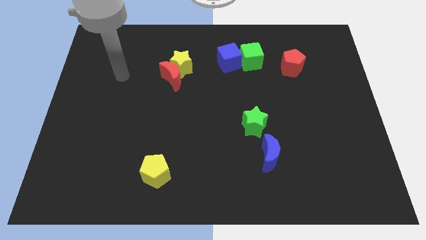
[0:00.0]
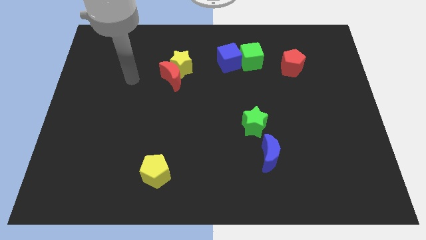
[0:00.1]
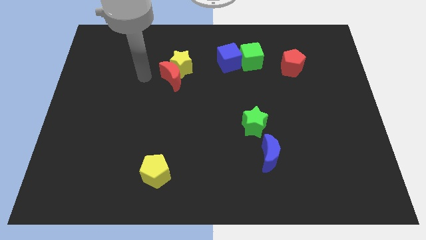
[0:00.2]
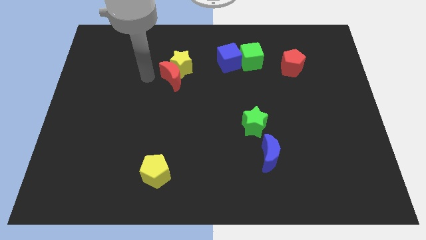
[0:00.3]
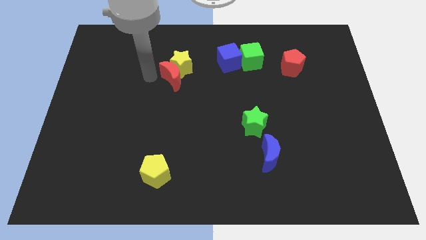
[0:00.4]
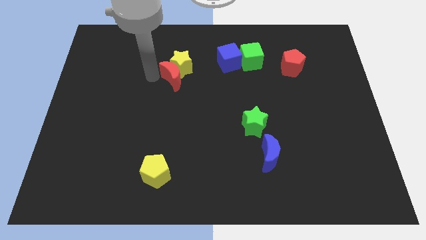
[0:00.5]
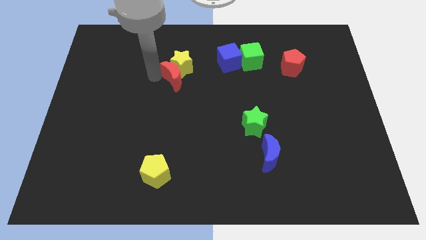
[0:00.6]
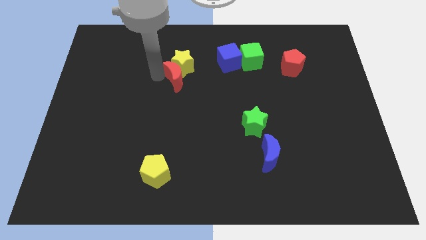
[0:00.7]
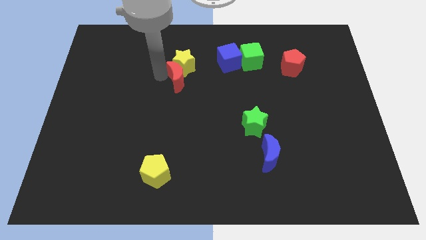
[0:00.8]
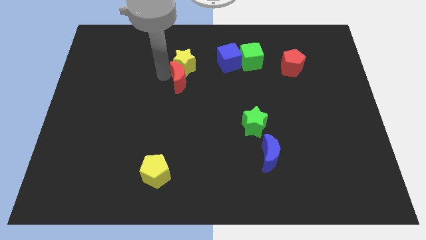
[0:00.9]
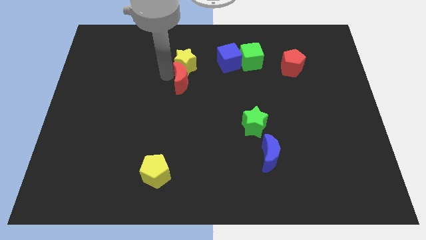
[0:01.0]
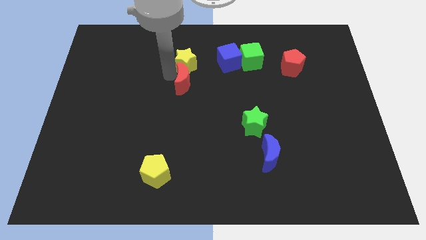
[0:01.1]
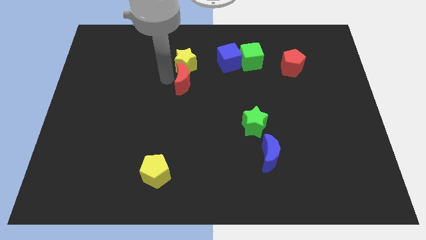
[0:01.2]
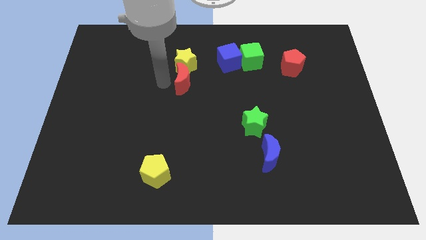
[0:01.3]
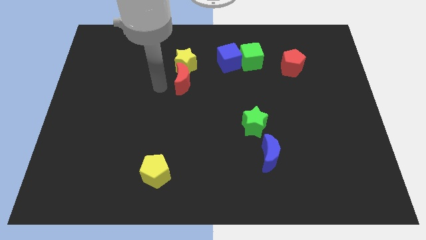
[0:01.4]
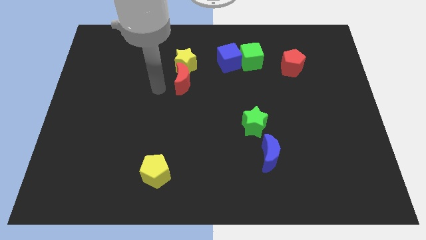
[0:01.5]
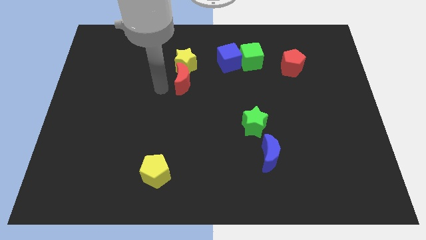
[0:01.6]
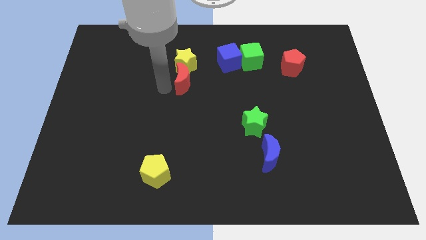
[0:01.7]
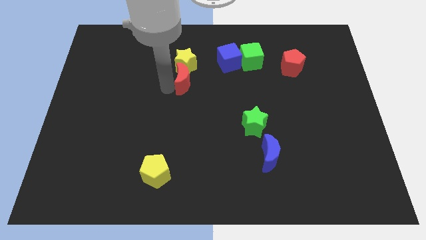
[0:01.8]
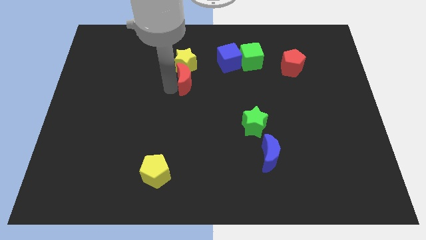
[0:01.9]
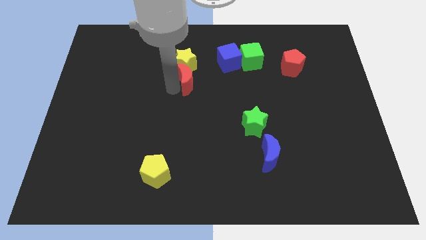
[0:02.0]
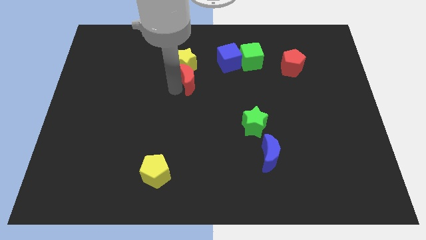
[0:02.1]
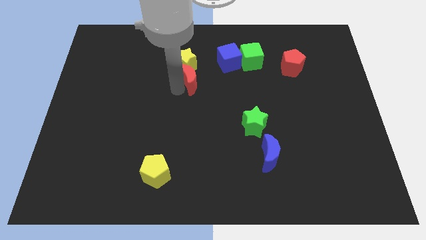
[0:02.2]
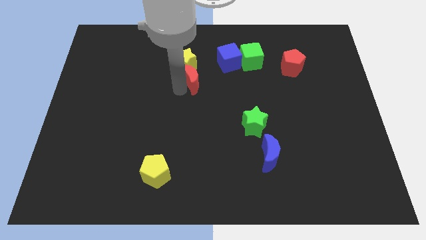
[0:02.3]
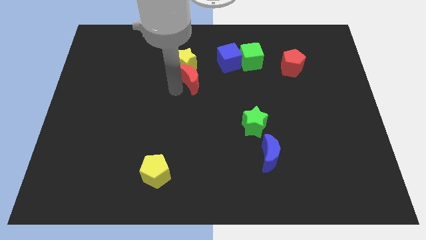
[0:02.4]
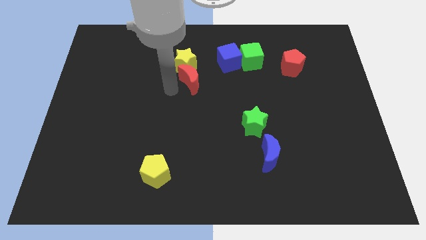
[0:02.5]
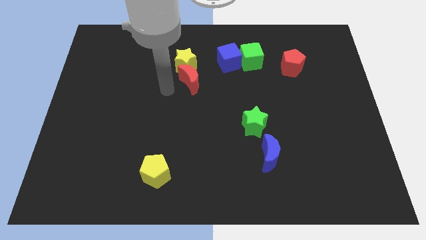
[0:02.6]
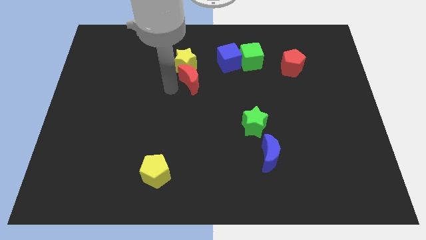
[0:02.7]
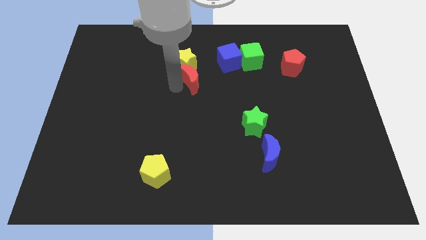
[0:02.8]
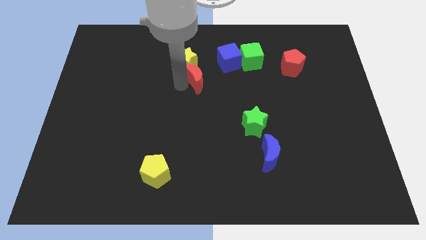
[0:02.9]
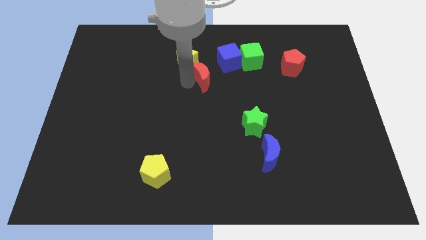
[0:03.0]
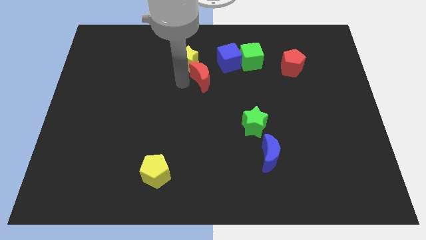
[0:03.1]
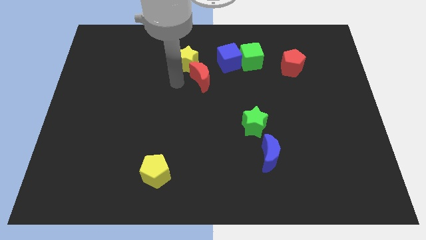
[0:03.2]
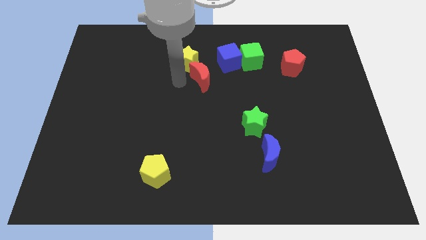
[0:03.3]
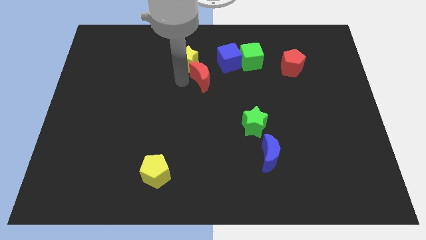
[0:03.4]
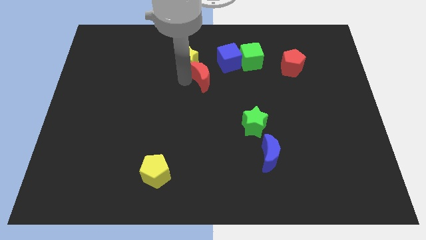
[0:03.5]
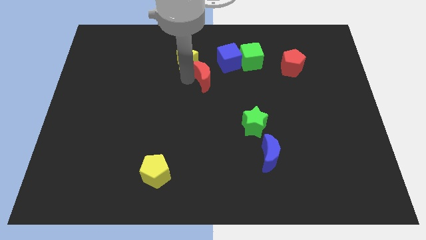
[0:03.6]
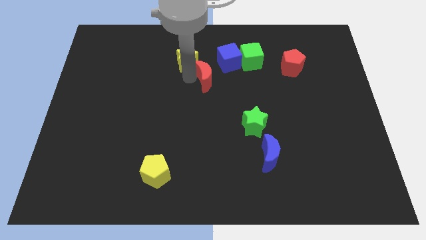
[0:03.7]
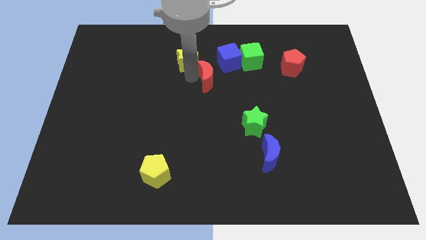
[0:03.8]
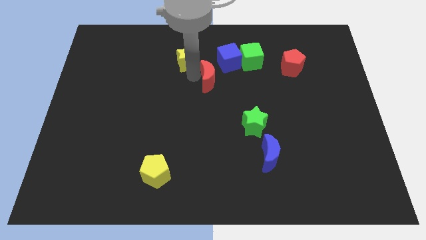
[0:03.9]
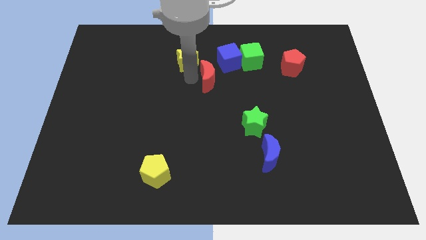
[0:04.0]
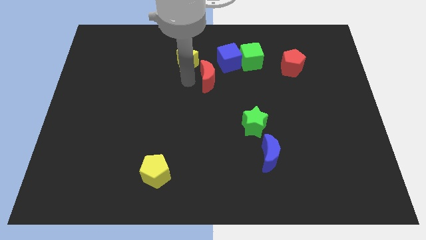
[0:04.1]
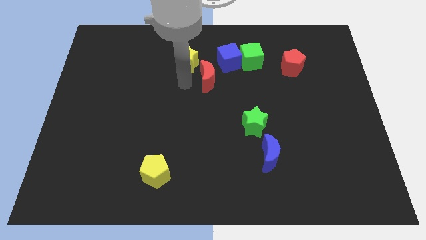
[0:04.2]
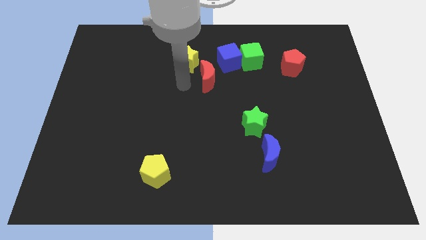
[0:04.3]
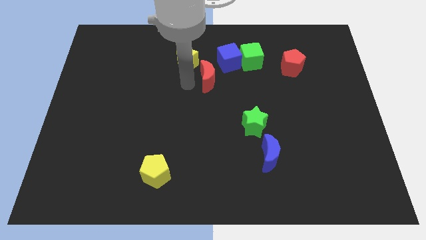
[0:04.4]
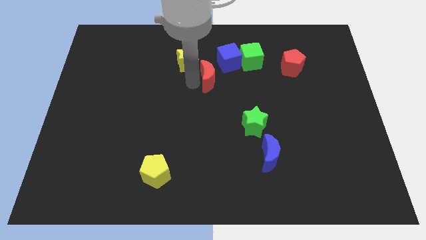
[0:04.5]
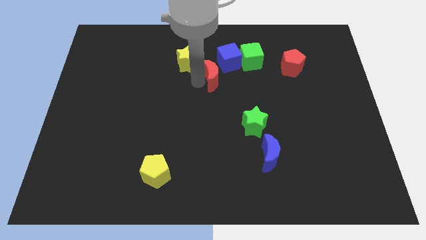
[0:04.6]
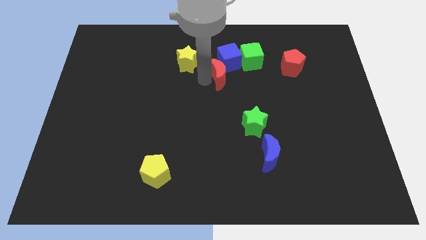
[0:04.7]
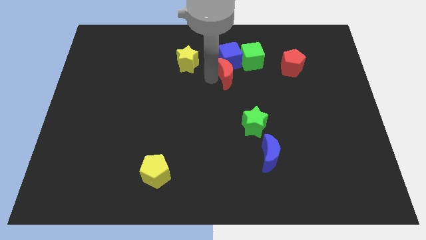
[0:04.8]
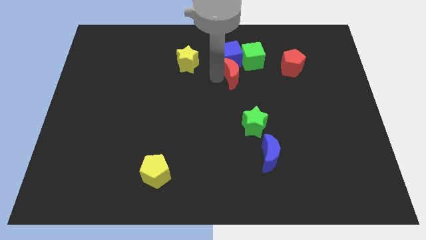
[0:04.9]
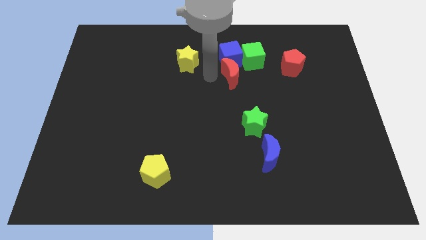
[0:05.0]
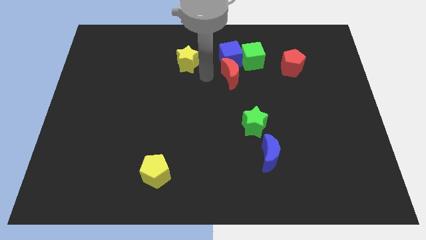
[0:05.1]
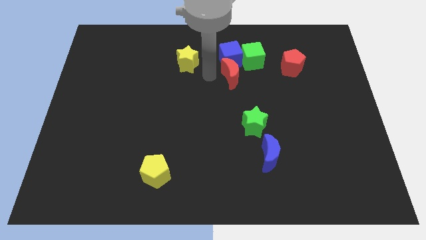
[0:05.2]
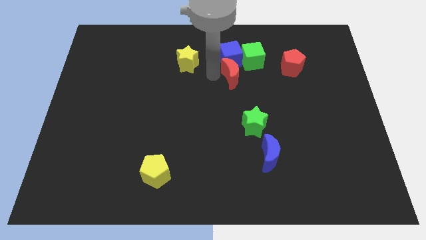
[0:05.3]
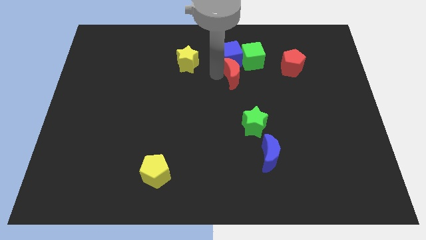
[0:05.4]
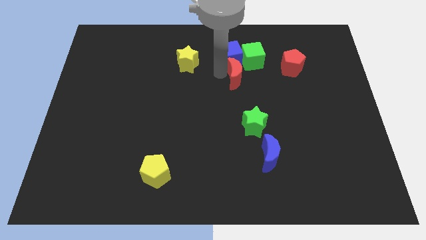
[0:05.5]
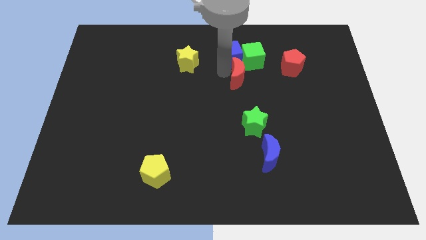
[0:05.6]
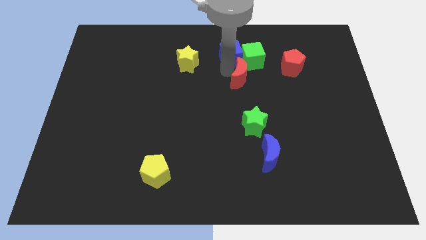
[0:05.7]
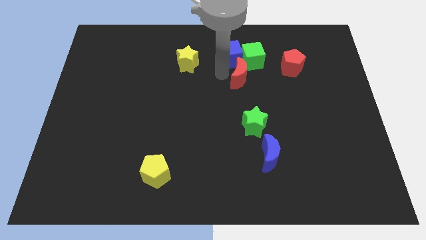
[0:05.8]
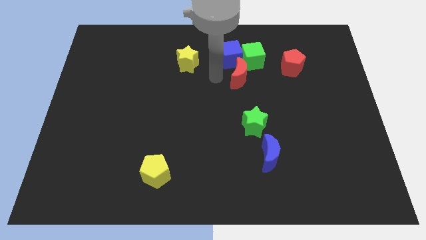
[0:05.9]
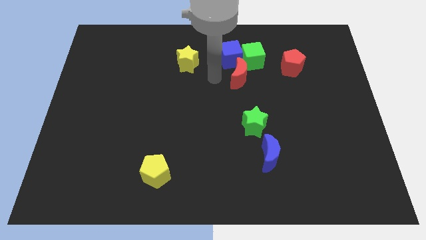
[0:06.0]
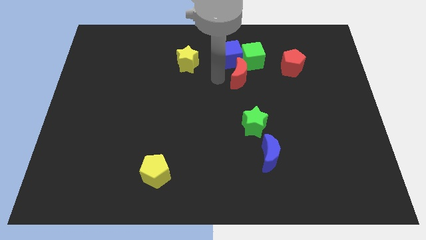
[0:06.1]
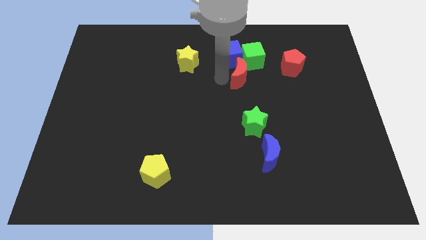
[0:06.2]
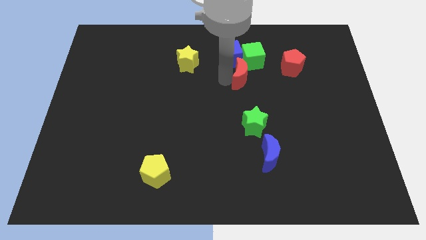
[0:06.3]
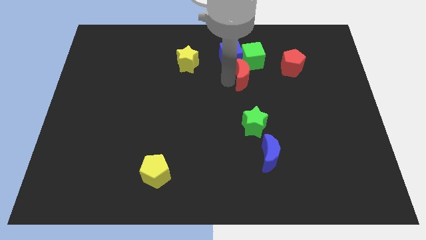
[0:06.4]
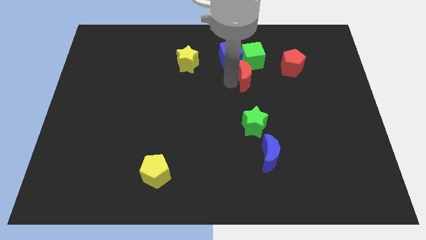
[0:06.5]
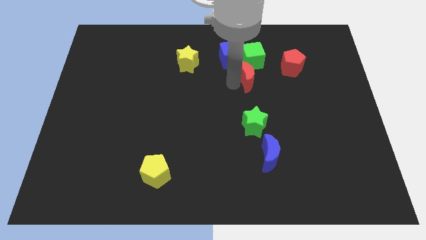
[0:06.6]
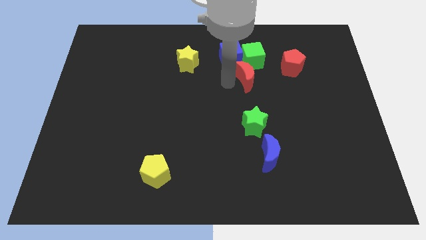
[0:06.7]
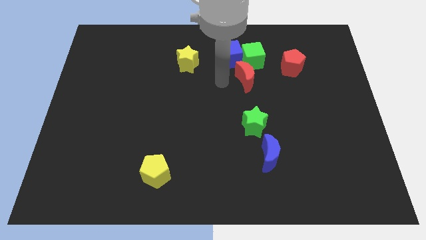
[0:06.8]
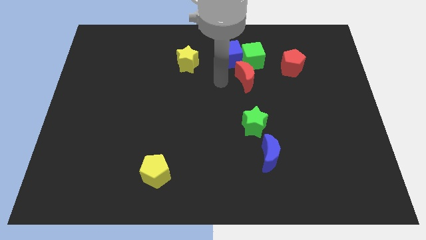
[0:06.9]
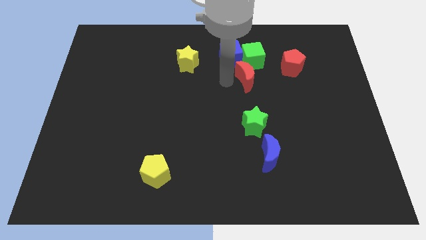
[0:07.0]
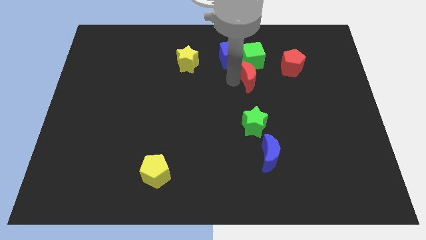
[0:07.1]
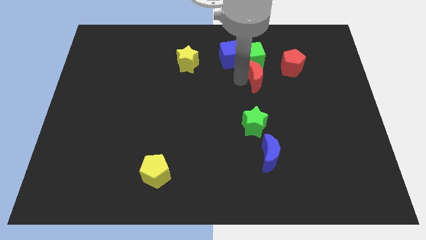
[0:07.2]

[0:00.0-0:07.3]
slide the red moon to the right

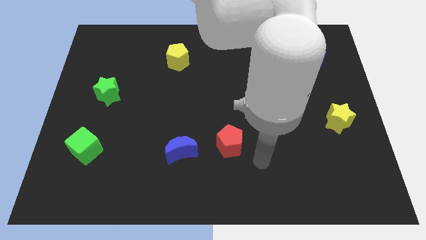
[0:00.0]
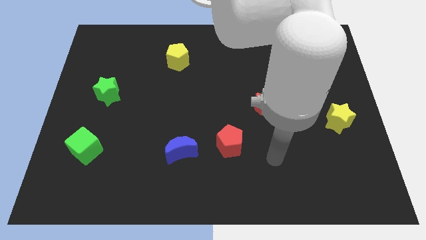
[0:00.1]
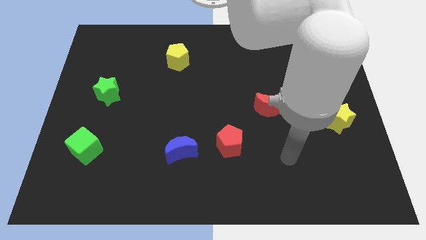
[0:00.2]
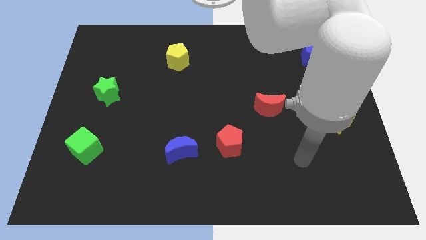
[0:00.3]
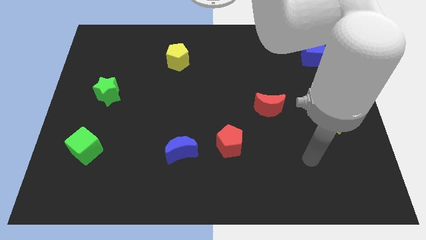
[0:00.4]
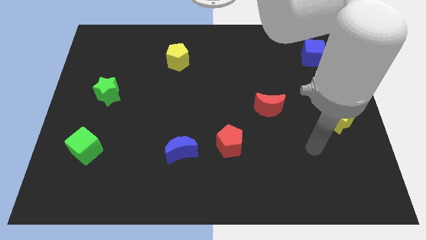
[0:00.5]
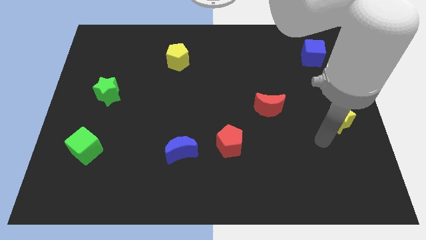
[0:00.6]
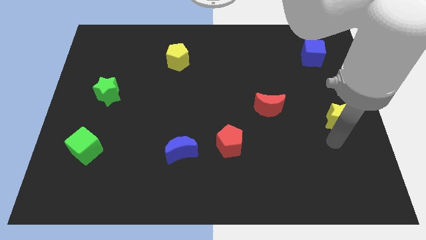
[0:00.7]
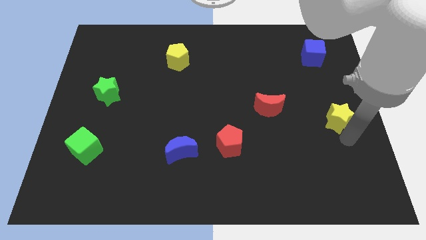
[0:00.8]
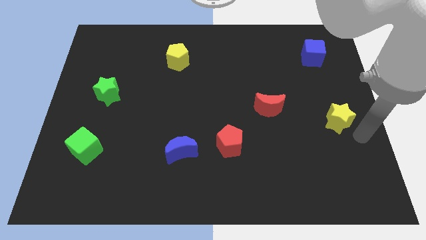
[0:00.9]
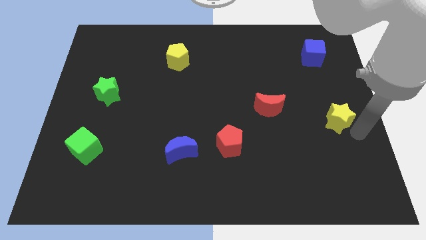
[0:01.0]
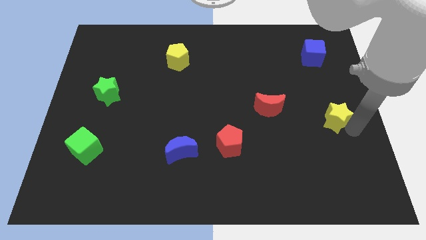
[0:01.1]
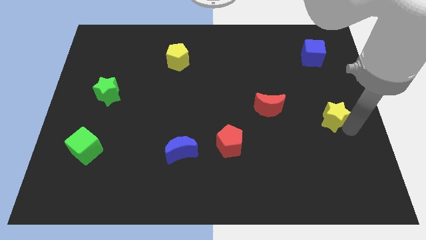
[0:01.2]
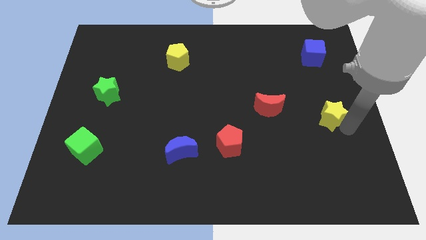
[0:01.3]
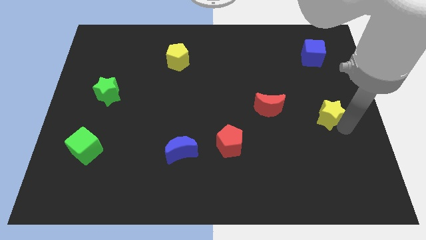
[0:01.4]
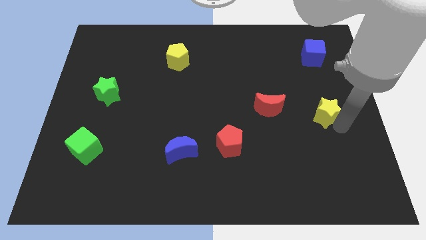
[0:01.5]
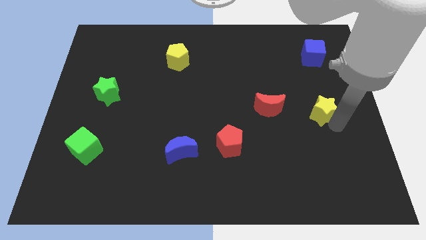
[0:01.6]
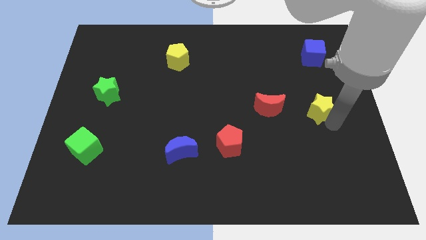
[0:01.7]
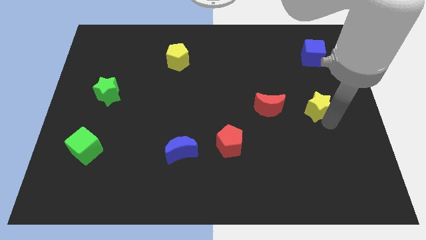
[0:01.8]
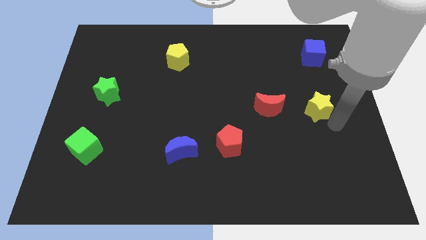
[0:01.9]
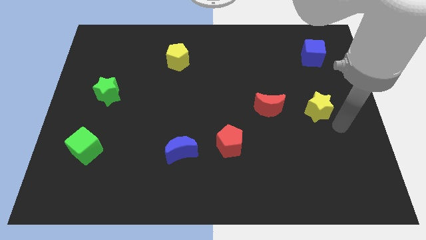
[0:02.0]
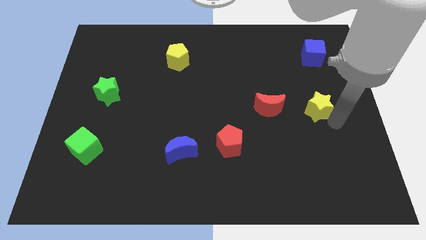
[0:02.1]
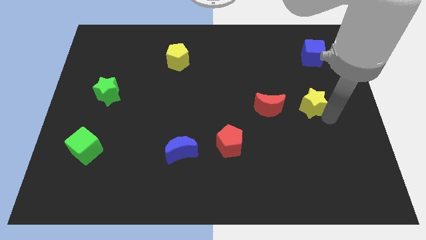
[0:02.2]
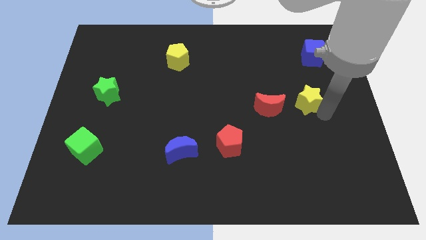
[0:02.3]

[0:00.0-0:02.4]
move the yellow star a little bit up and then left
